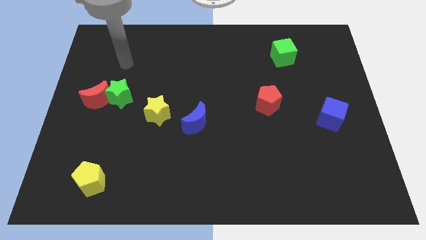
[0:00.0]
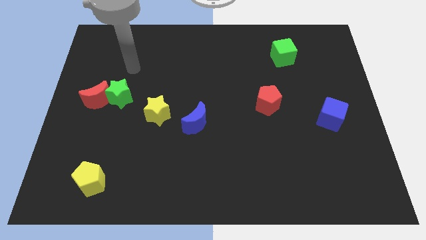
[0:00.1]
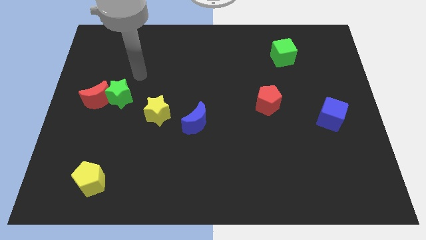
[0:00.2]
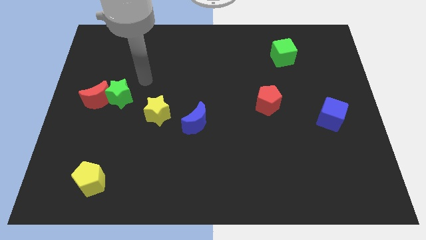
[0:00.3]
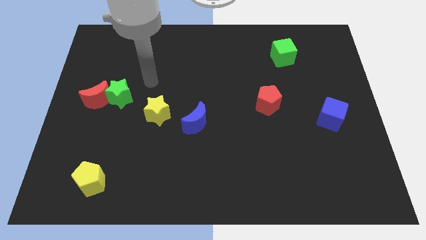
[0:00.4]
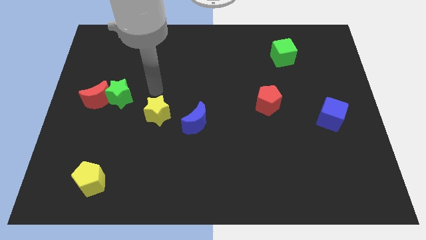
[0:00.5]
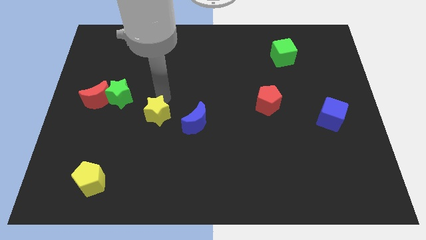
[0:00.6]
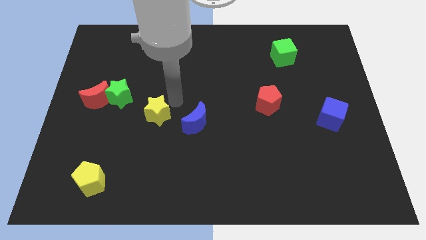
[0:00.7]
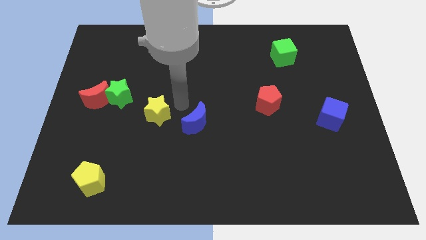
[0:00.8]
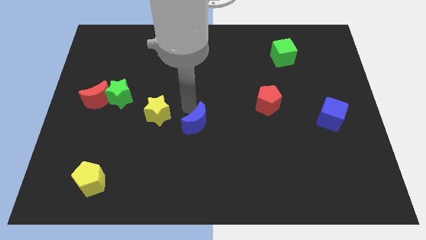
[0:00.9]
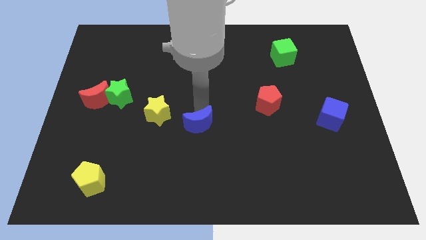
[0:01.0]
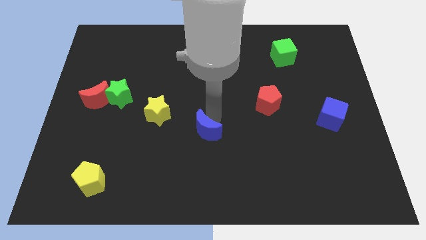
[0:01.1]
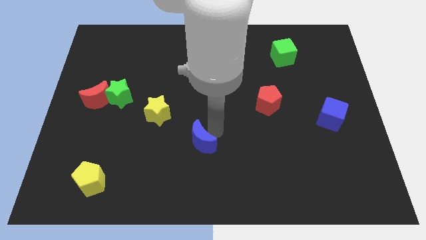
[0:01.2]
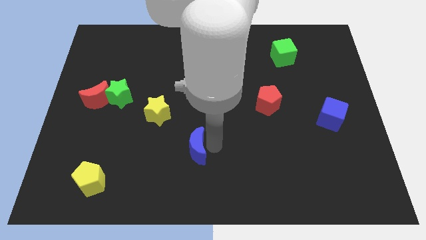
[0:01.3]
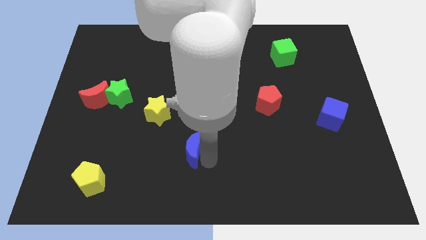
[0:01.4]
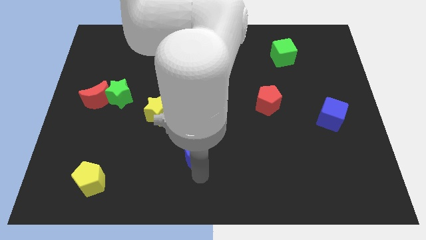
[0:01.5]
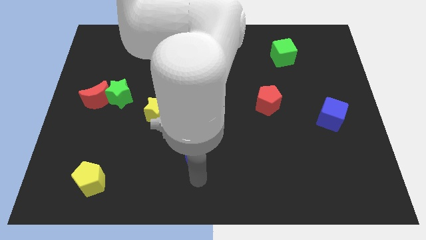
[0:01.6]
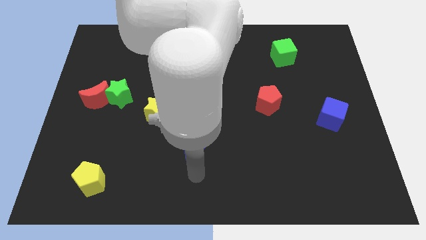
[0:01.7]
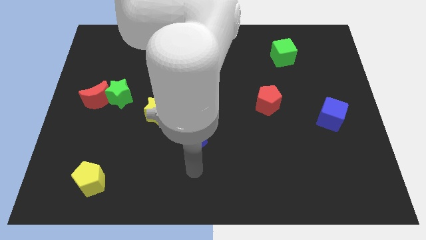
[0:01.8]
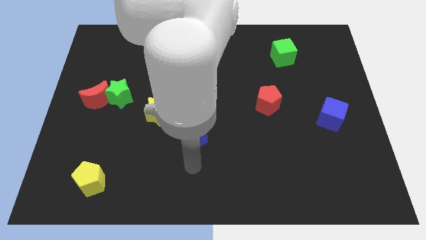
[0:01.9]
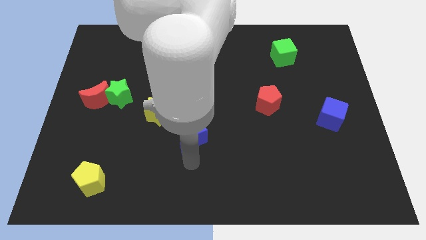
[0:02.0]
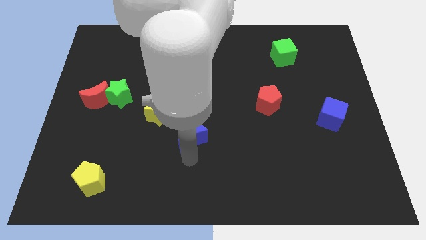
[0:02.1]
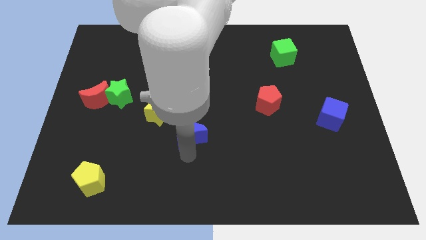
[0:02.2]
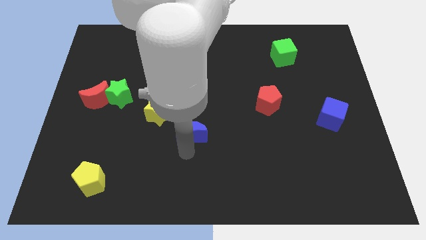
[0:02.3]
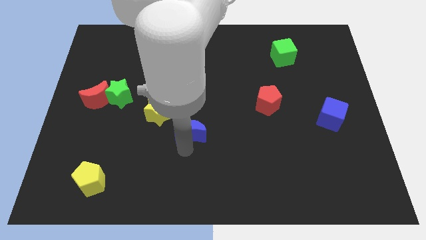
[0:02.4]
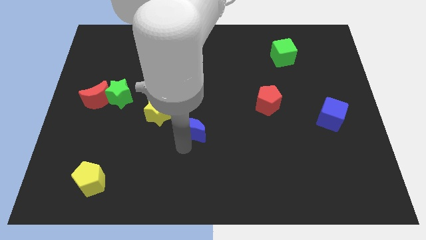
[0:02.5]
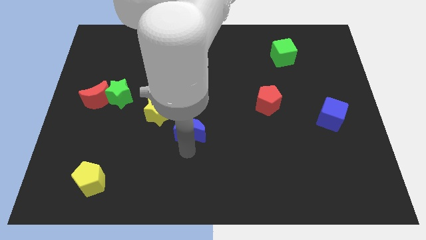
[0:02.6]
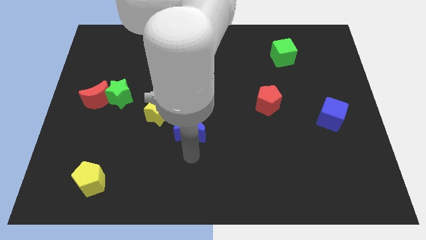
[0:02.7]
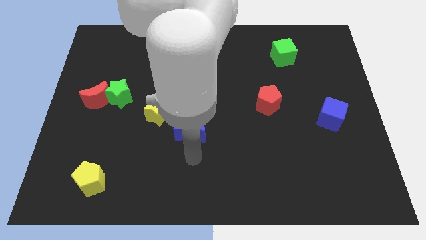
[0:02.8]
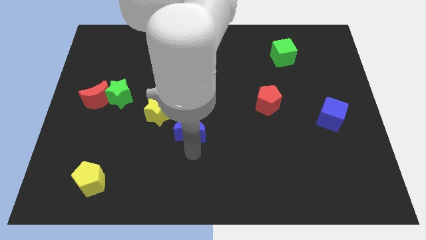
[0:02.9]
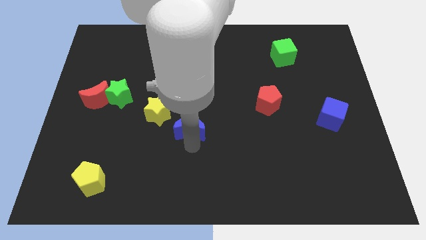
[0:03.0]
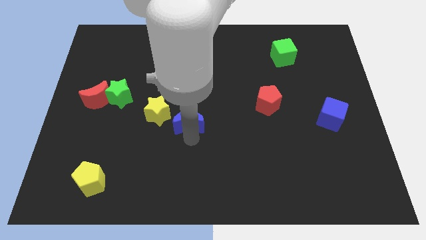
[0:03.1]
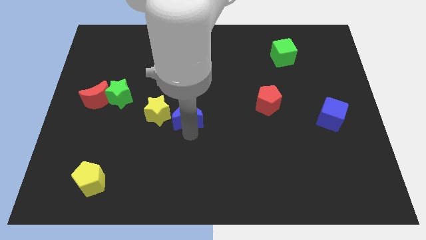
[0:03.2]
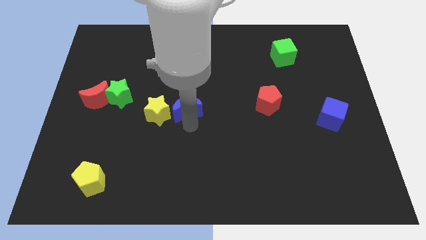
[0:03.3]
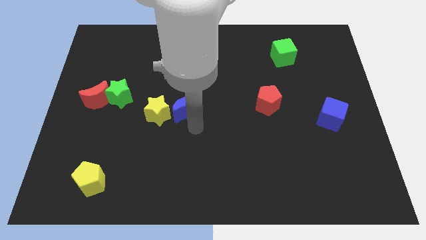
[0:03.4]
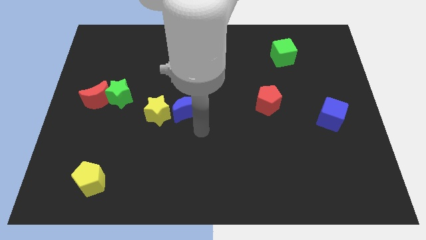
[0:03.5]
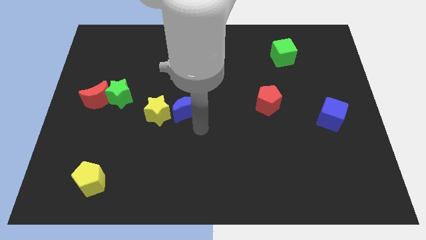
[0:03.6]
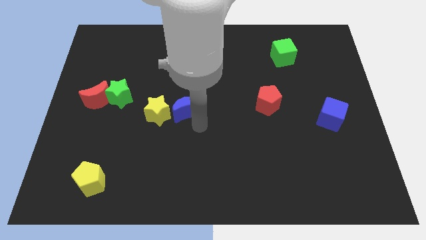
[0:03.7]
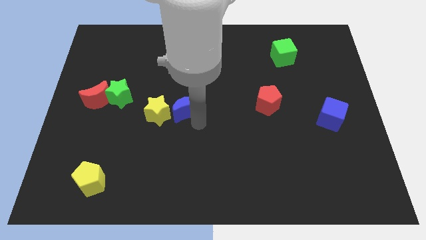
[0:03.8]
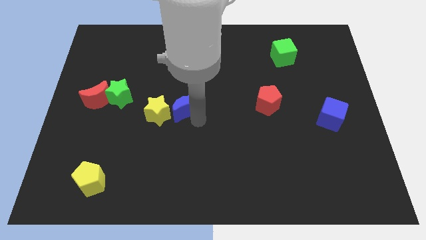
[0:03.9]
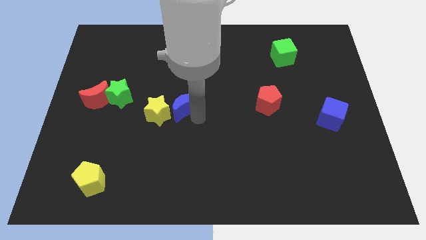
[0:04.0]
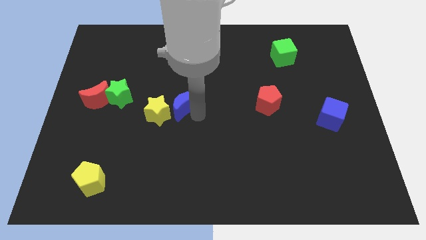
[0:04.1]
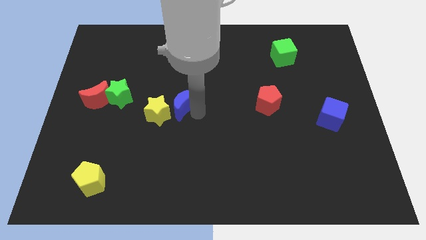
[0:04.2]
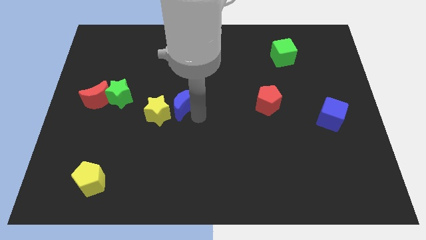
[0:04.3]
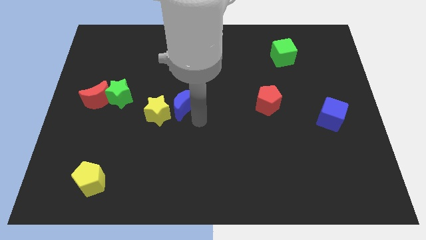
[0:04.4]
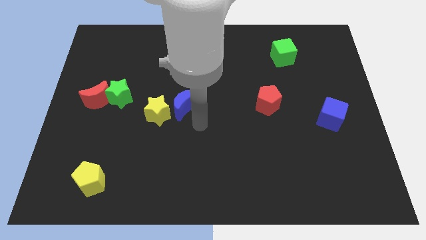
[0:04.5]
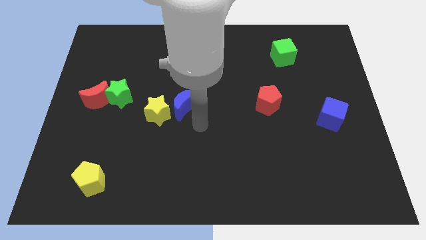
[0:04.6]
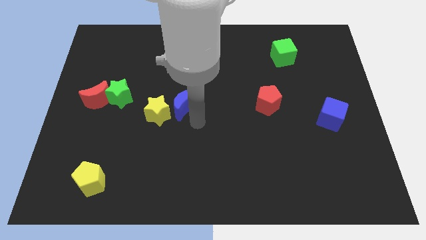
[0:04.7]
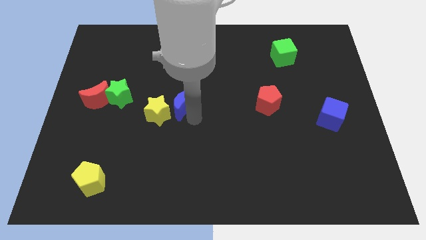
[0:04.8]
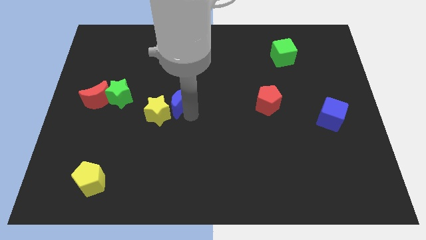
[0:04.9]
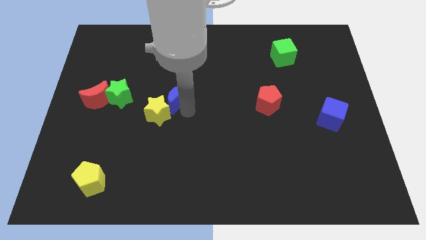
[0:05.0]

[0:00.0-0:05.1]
slightly move the blue moon diagonally up and left

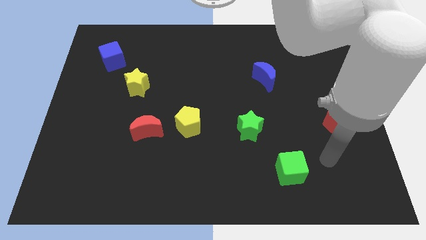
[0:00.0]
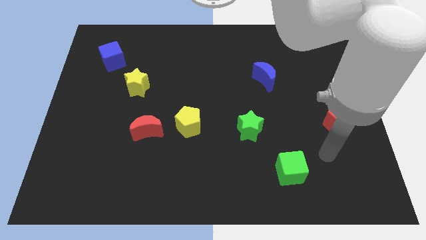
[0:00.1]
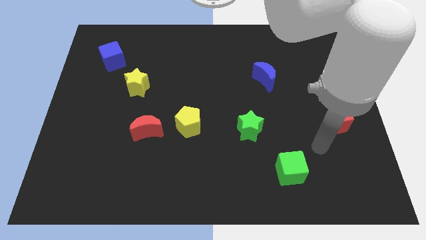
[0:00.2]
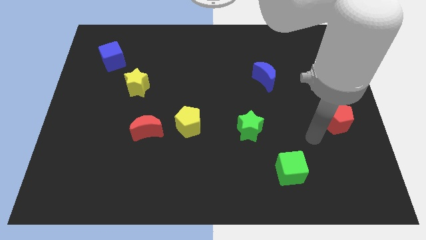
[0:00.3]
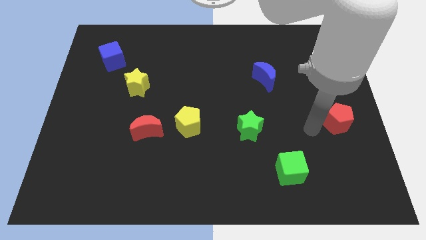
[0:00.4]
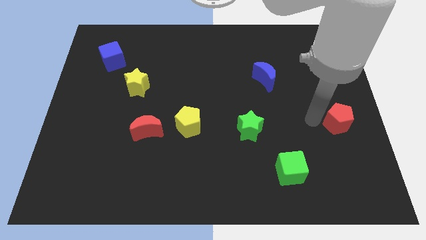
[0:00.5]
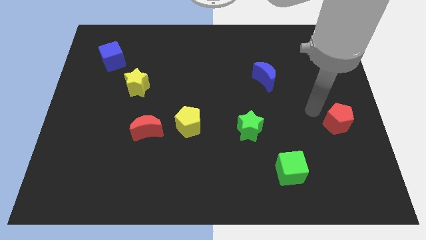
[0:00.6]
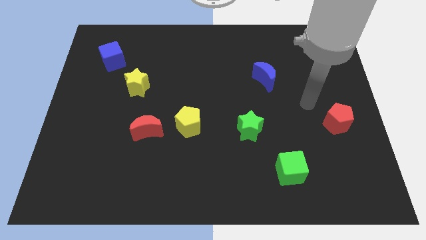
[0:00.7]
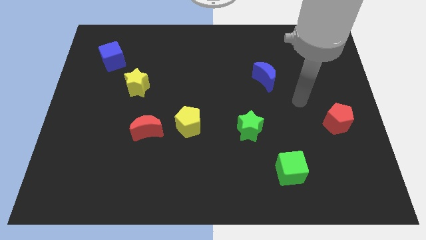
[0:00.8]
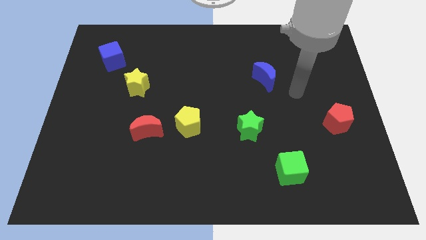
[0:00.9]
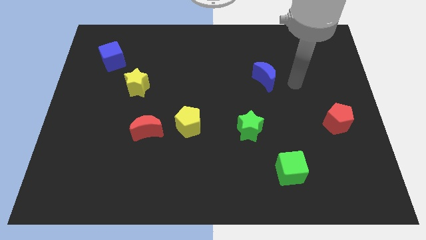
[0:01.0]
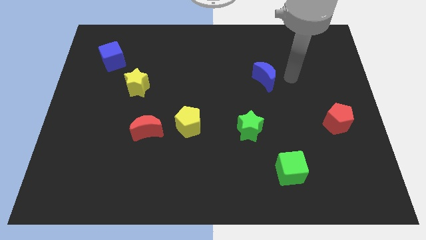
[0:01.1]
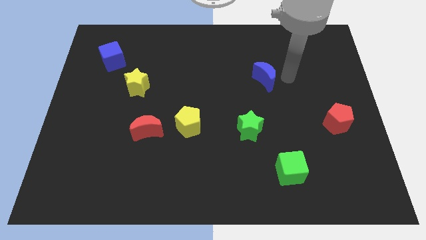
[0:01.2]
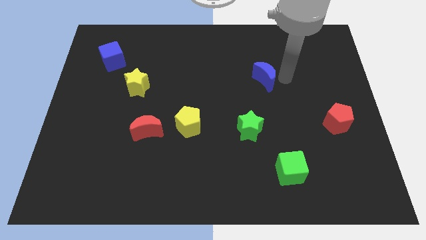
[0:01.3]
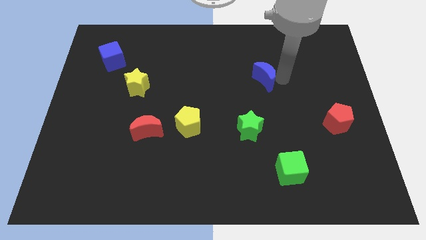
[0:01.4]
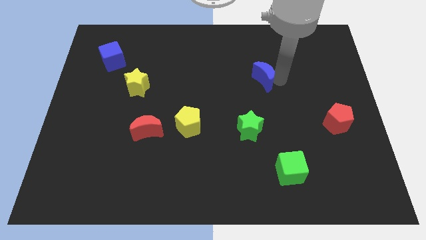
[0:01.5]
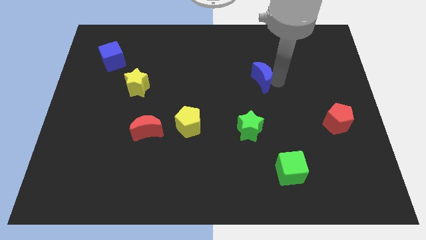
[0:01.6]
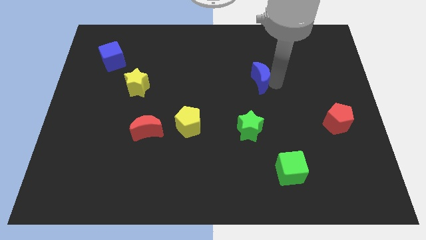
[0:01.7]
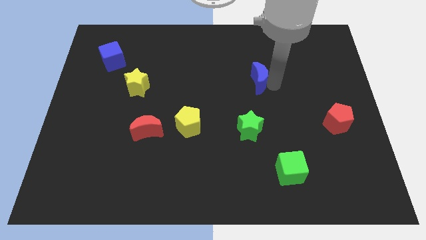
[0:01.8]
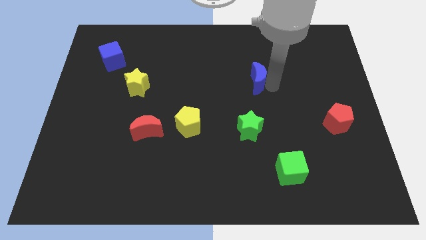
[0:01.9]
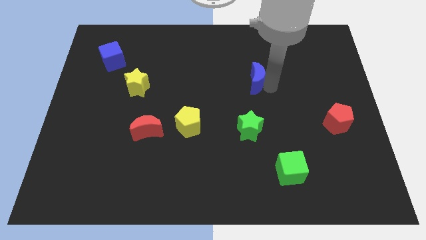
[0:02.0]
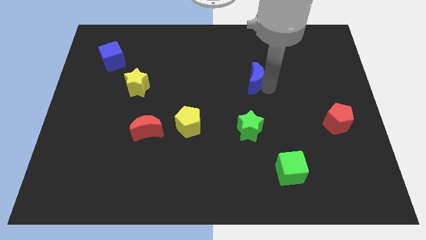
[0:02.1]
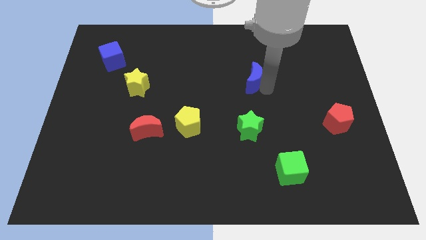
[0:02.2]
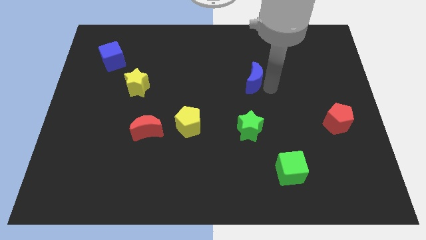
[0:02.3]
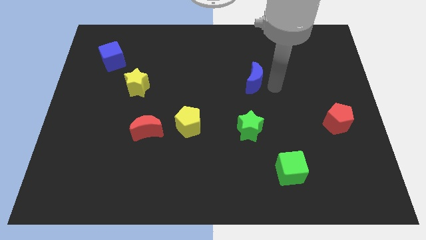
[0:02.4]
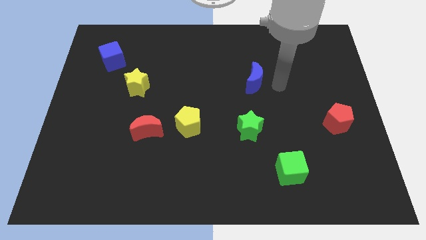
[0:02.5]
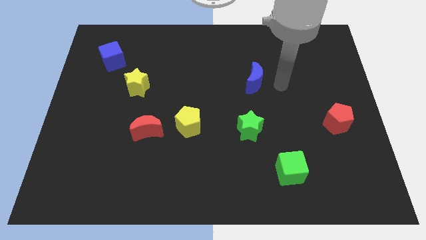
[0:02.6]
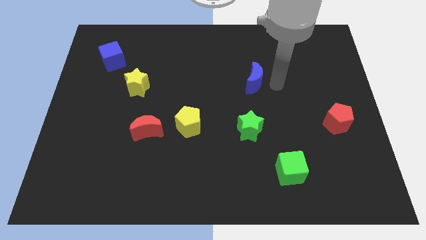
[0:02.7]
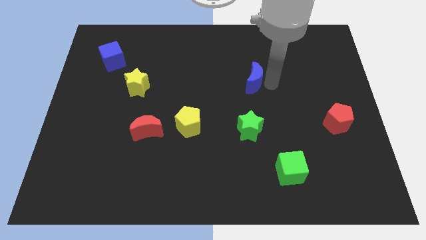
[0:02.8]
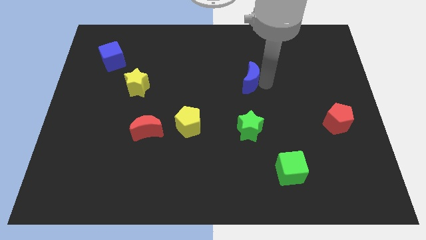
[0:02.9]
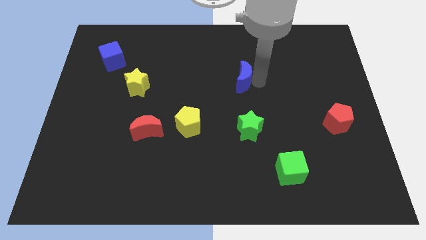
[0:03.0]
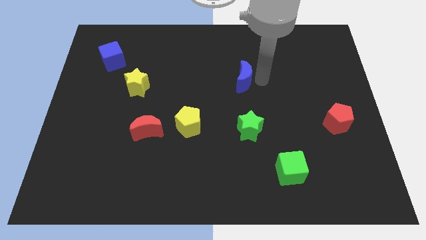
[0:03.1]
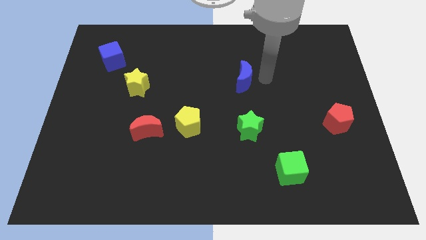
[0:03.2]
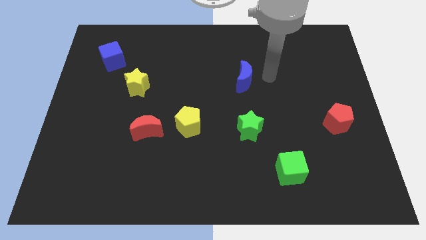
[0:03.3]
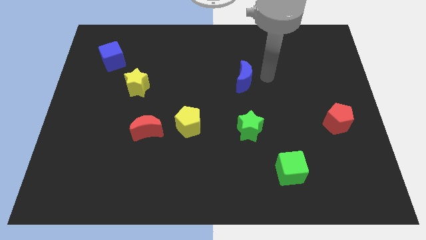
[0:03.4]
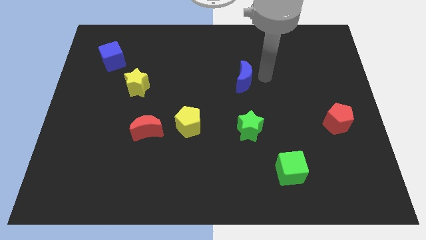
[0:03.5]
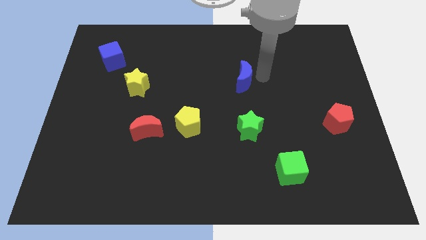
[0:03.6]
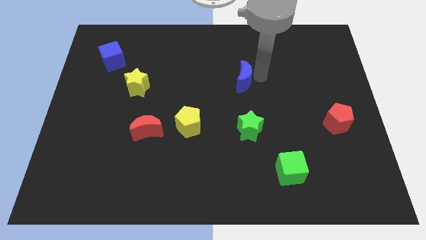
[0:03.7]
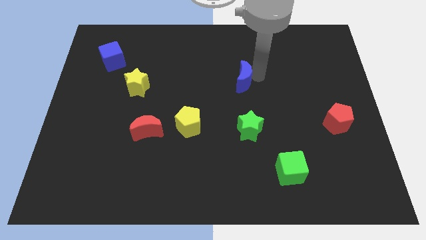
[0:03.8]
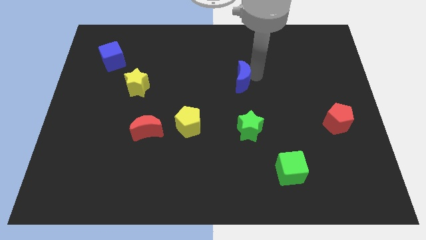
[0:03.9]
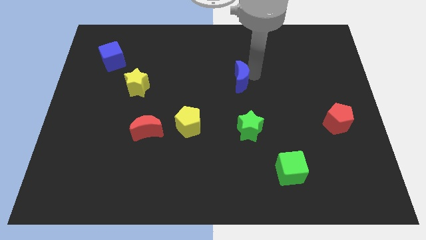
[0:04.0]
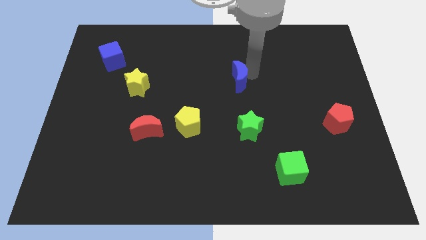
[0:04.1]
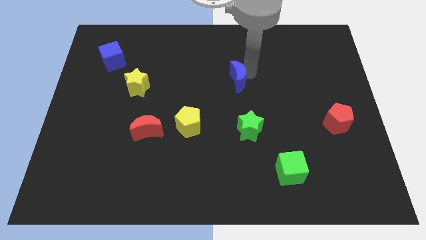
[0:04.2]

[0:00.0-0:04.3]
slide the blue moon slightly left
